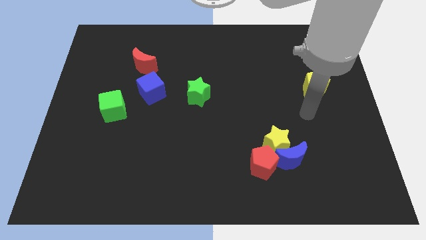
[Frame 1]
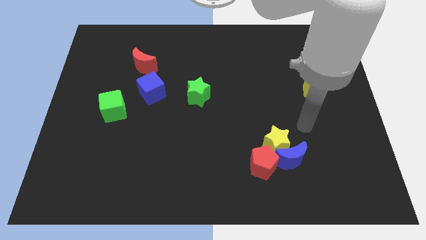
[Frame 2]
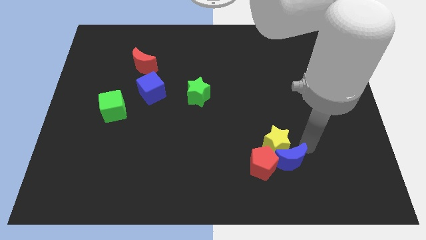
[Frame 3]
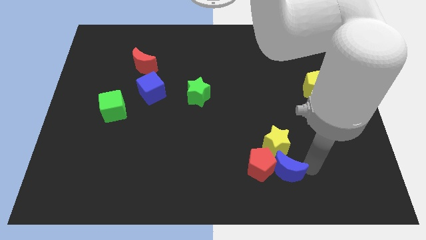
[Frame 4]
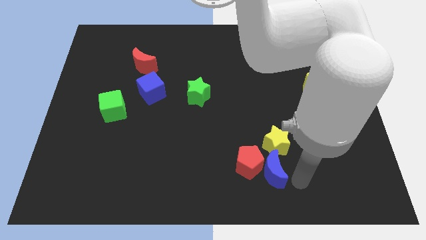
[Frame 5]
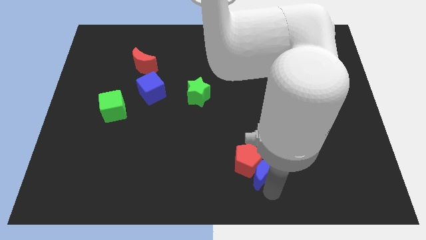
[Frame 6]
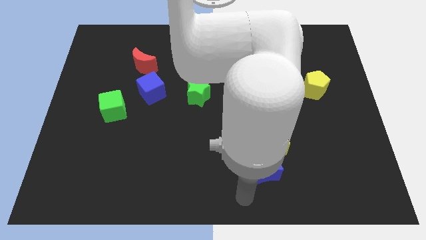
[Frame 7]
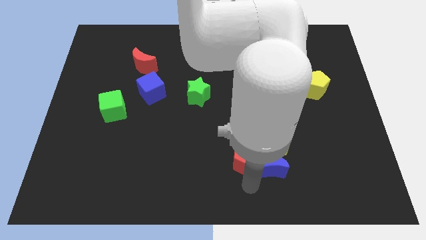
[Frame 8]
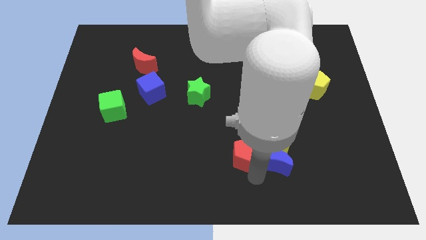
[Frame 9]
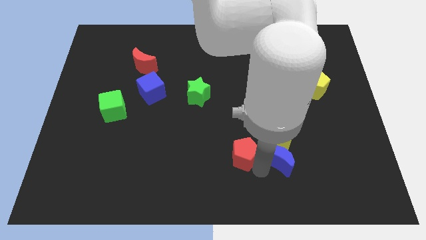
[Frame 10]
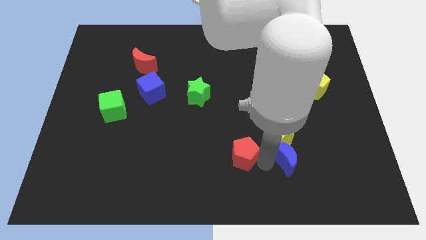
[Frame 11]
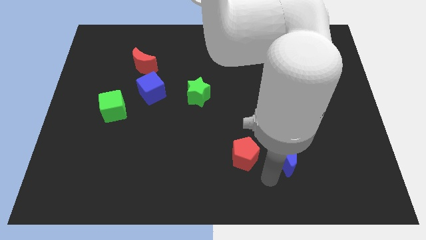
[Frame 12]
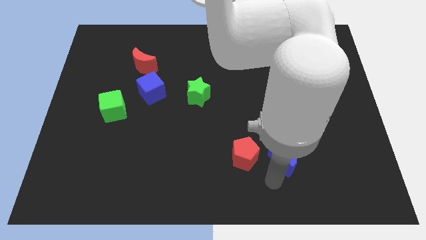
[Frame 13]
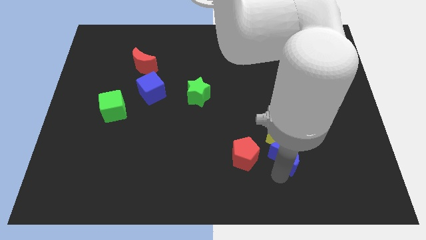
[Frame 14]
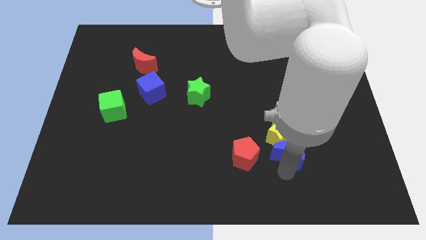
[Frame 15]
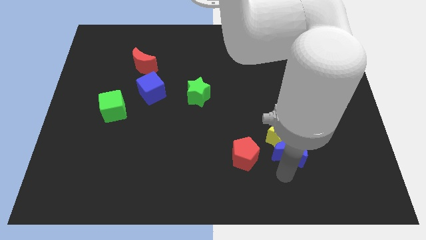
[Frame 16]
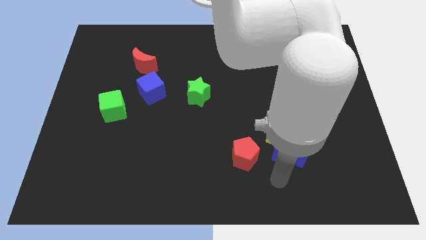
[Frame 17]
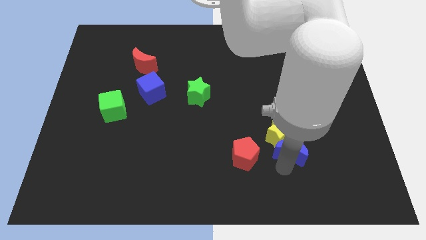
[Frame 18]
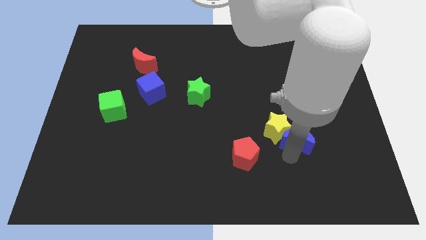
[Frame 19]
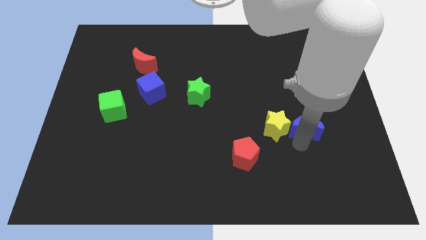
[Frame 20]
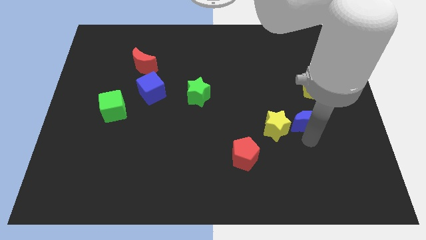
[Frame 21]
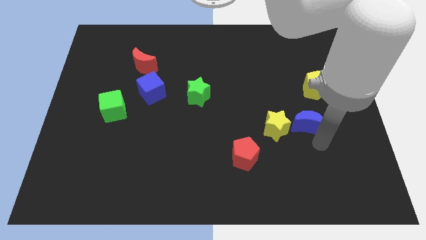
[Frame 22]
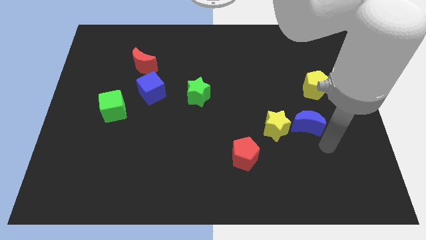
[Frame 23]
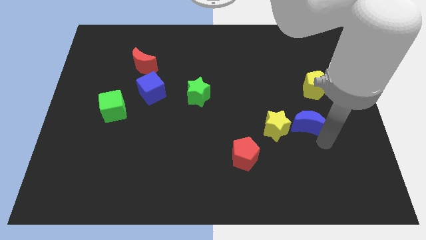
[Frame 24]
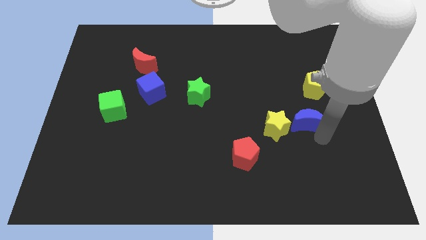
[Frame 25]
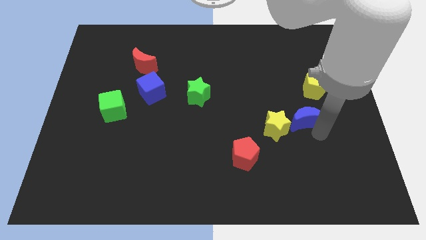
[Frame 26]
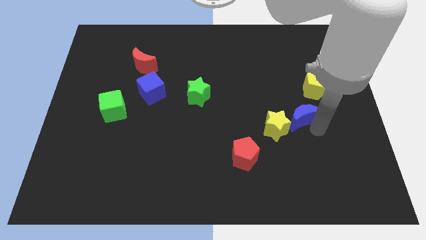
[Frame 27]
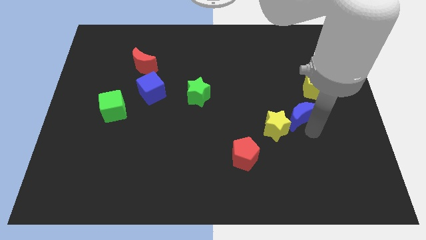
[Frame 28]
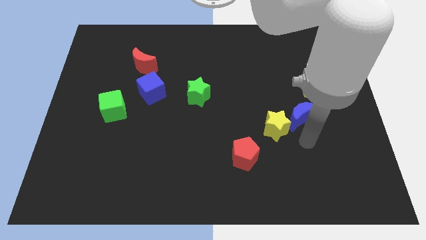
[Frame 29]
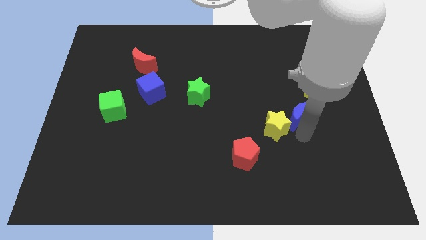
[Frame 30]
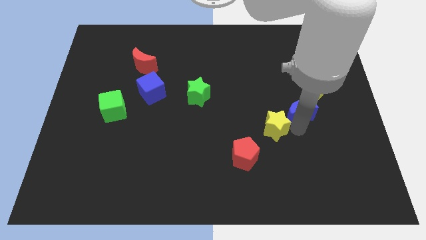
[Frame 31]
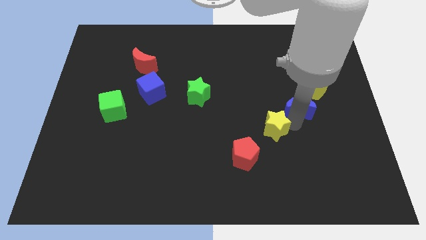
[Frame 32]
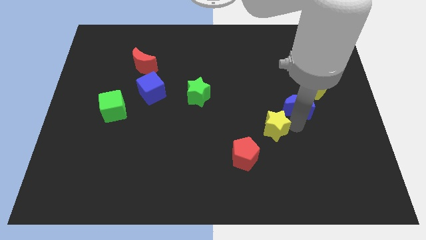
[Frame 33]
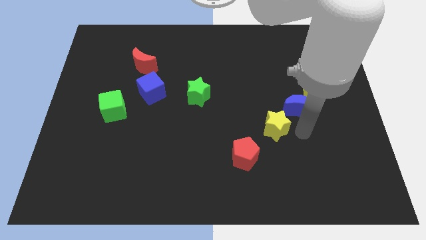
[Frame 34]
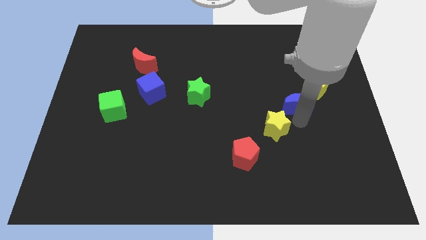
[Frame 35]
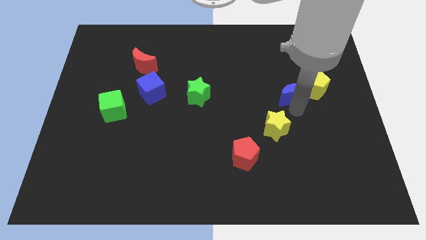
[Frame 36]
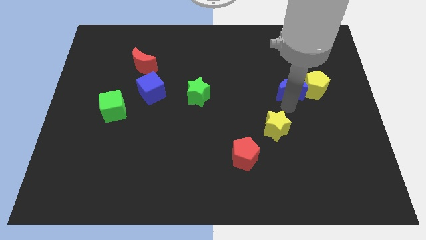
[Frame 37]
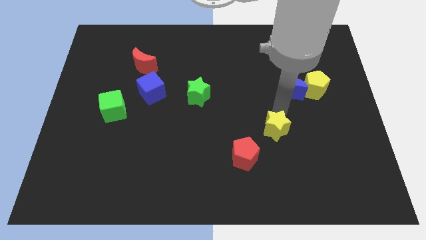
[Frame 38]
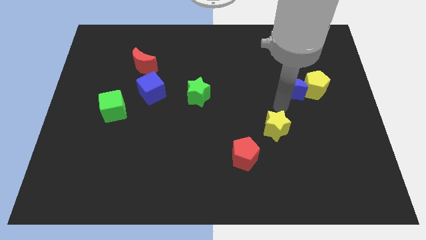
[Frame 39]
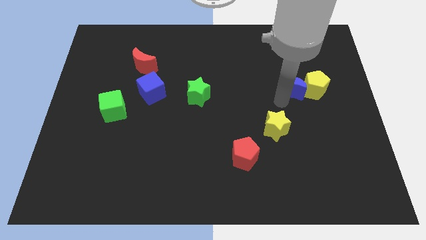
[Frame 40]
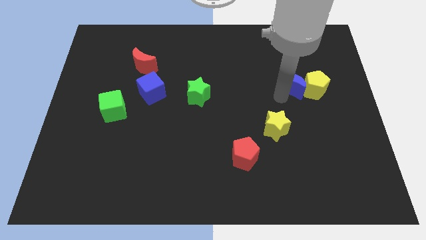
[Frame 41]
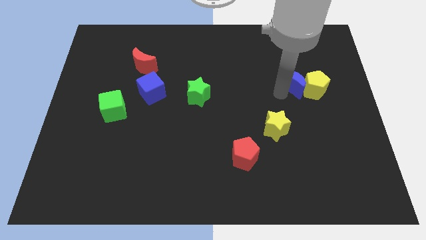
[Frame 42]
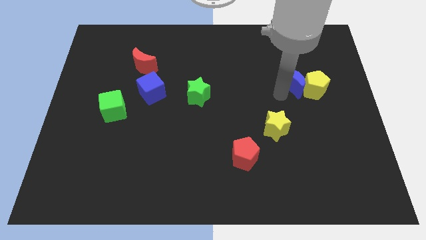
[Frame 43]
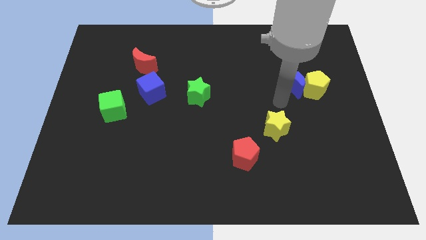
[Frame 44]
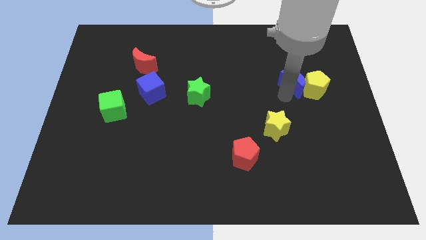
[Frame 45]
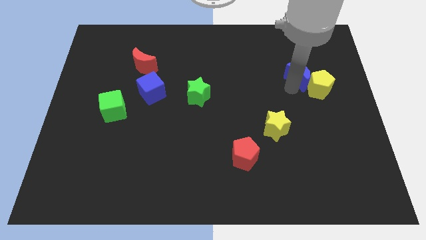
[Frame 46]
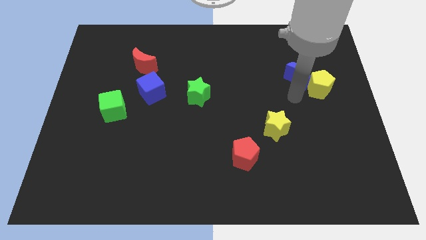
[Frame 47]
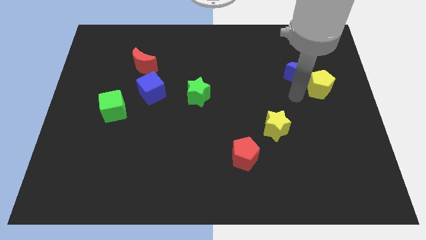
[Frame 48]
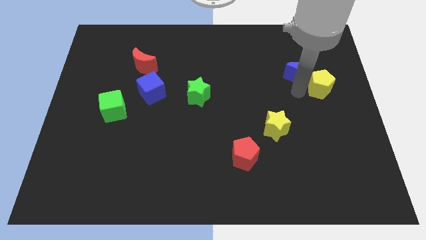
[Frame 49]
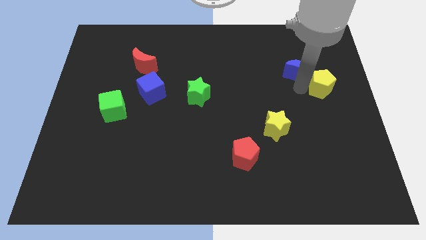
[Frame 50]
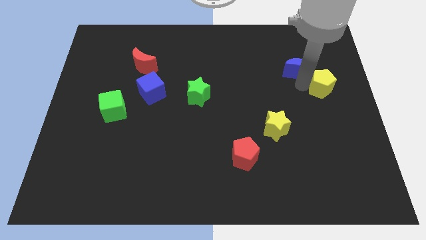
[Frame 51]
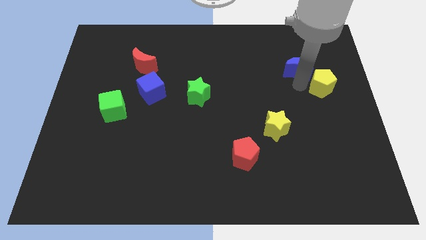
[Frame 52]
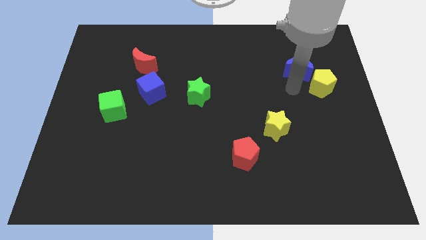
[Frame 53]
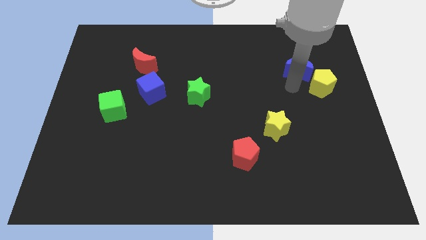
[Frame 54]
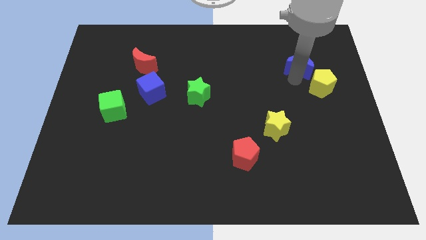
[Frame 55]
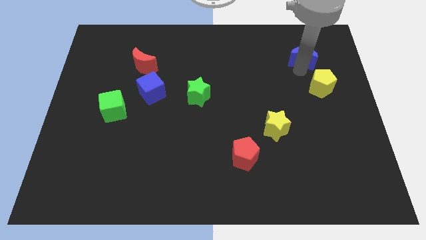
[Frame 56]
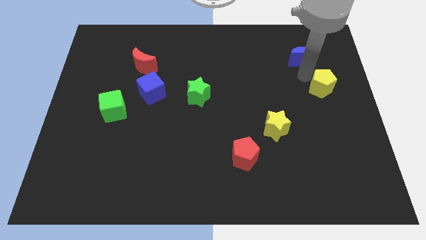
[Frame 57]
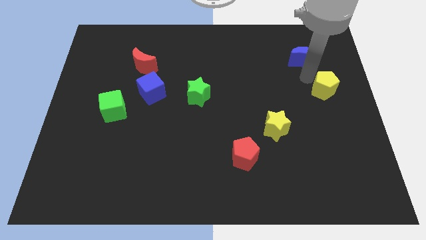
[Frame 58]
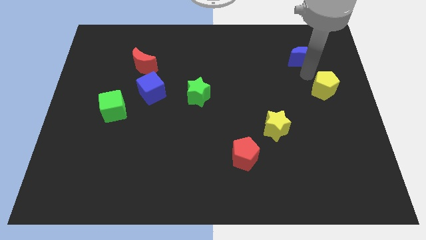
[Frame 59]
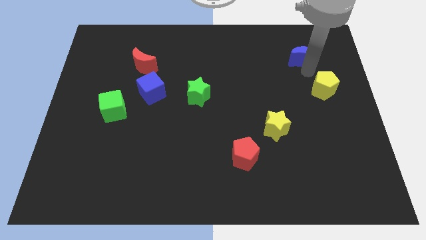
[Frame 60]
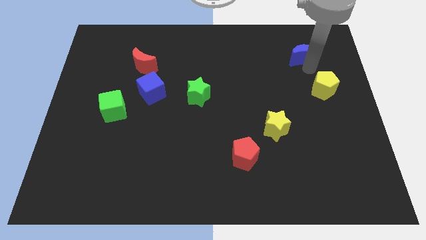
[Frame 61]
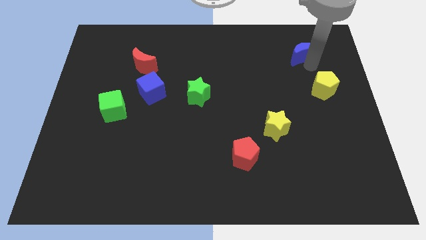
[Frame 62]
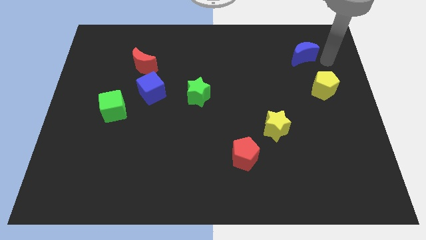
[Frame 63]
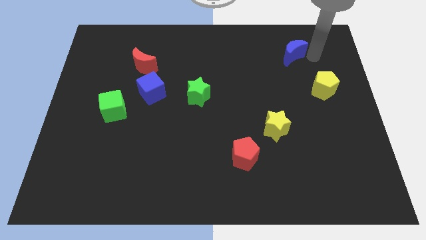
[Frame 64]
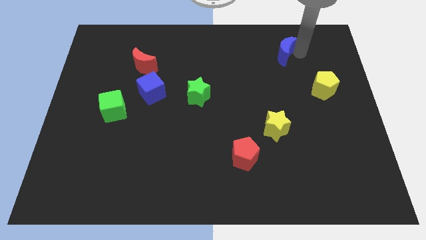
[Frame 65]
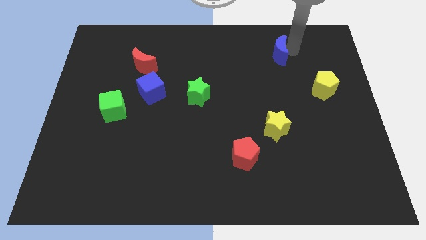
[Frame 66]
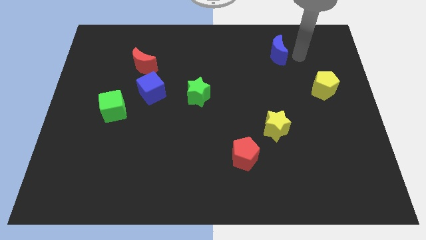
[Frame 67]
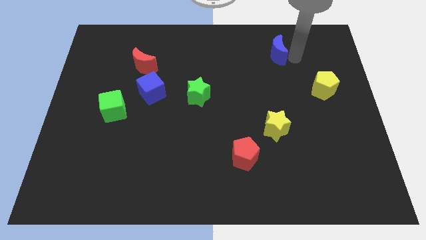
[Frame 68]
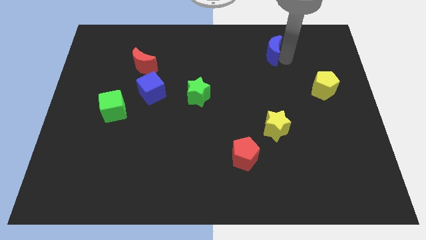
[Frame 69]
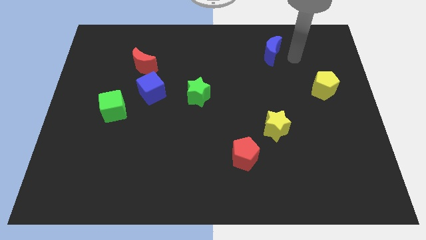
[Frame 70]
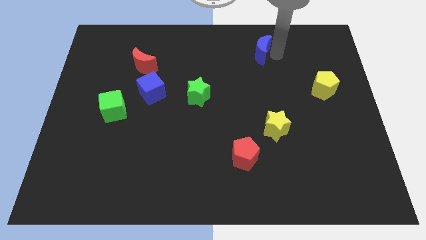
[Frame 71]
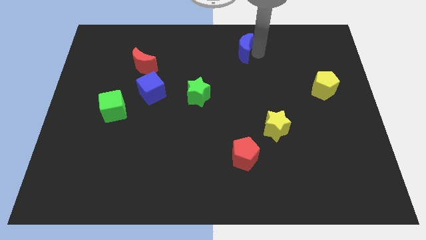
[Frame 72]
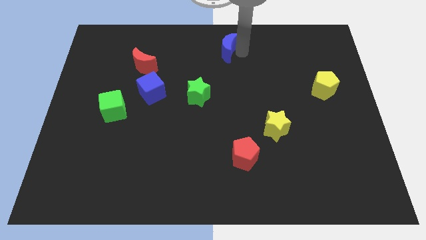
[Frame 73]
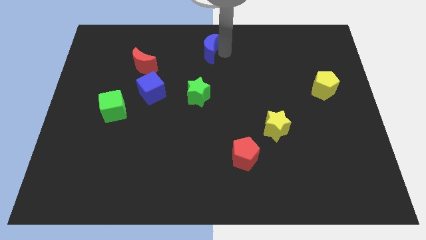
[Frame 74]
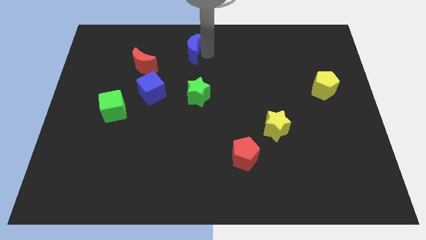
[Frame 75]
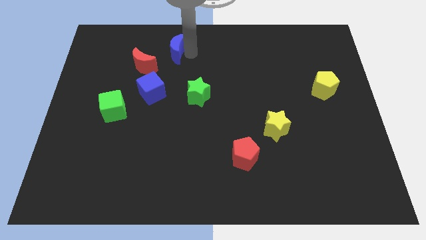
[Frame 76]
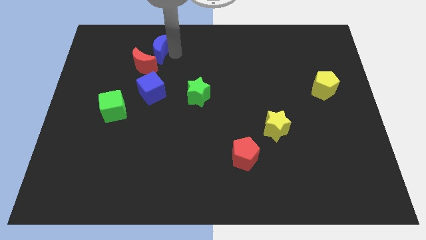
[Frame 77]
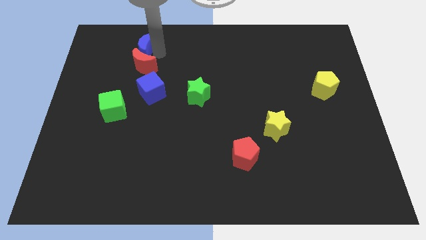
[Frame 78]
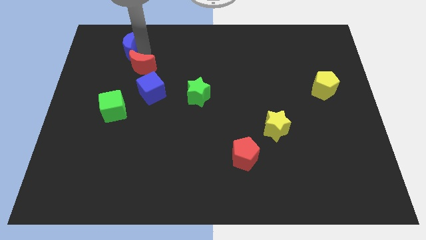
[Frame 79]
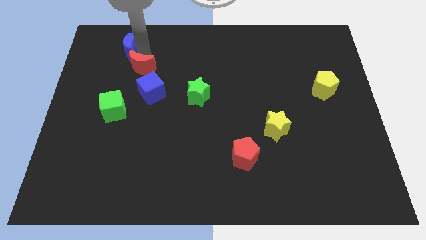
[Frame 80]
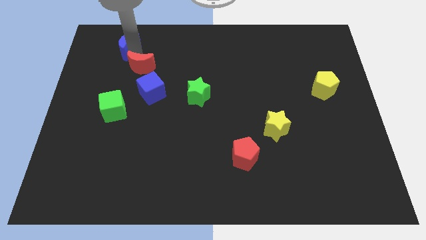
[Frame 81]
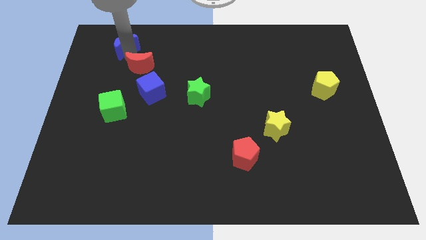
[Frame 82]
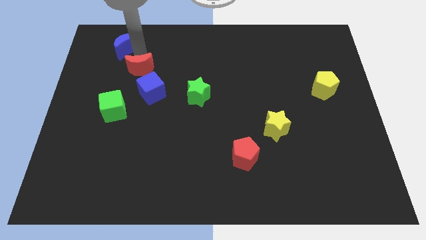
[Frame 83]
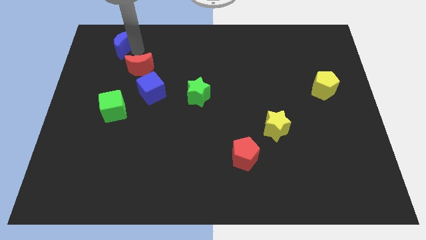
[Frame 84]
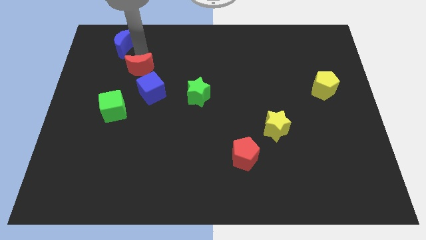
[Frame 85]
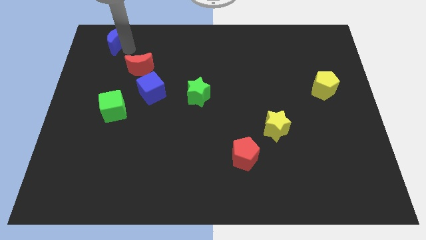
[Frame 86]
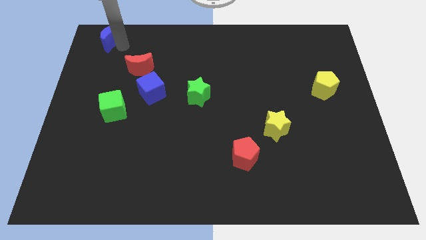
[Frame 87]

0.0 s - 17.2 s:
put the blue moon to the top left
